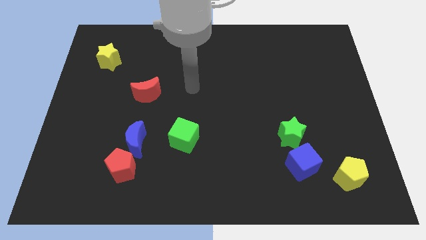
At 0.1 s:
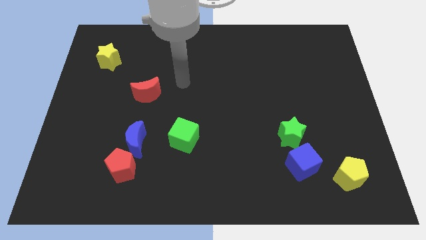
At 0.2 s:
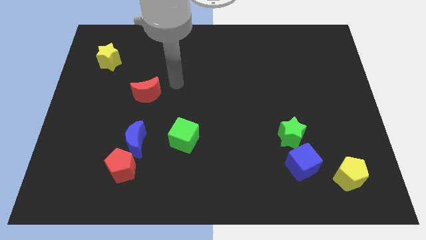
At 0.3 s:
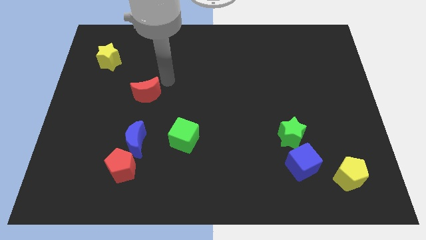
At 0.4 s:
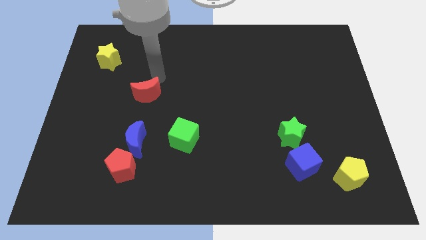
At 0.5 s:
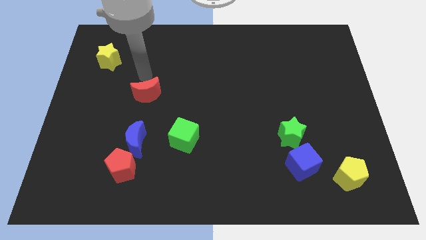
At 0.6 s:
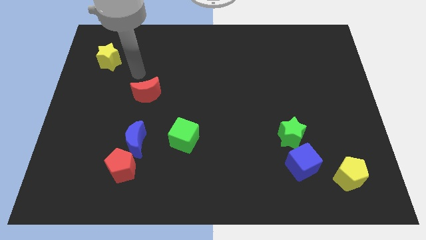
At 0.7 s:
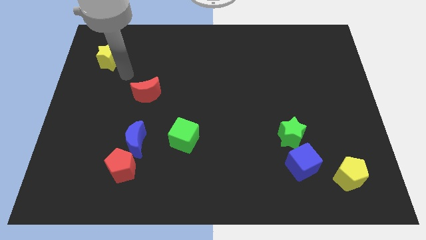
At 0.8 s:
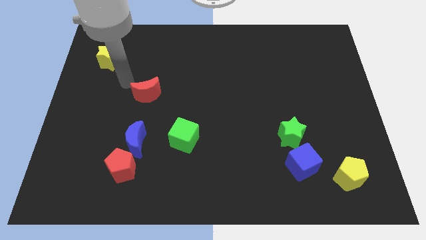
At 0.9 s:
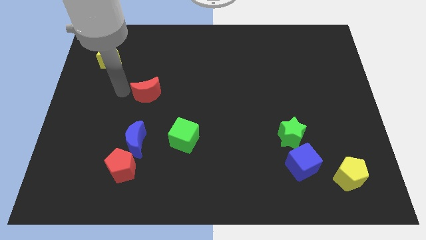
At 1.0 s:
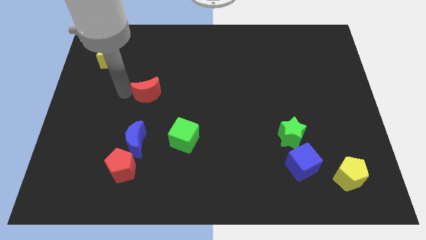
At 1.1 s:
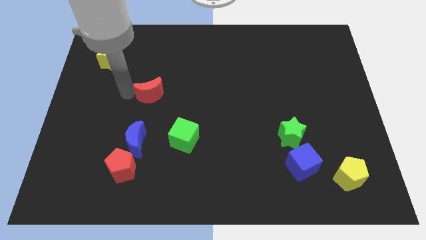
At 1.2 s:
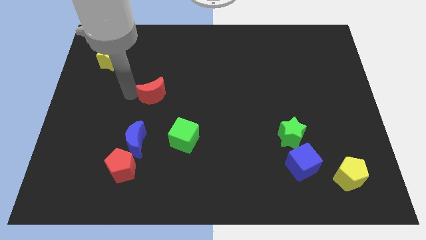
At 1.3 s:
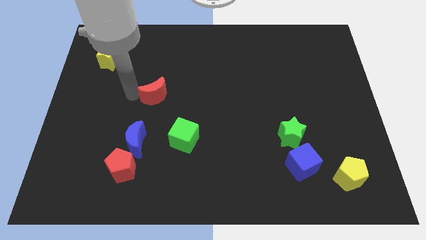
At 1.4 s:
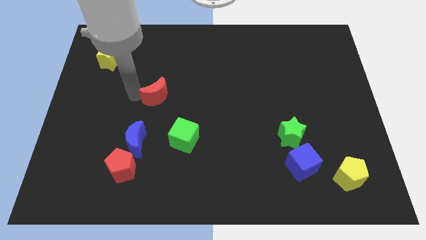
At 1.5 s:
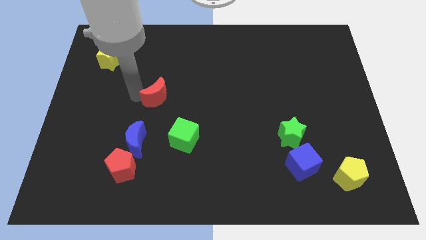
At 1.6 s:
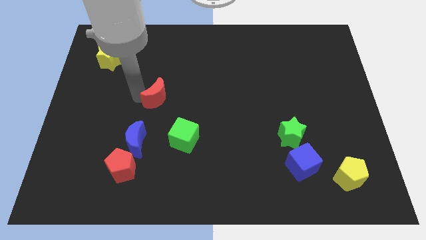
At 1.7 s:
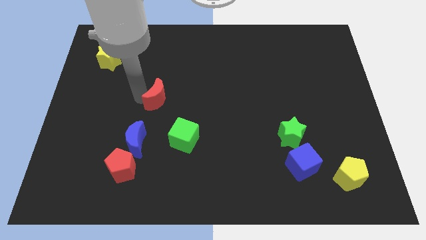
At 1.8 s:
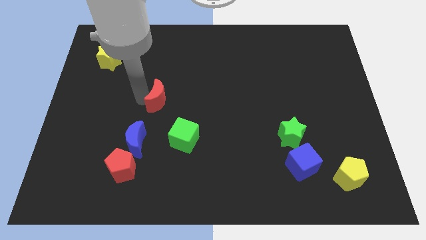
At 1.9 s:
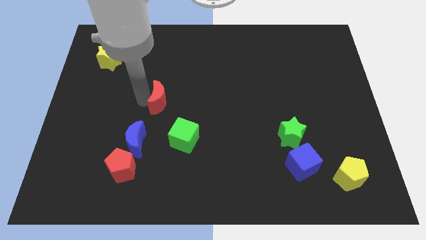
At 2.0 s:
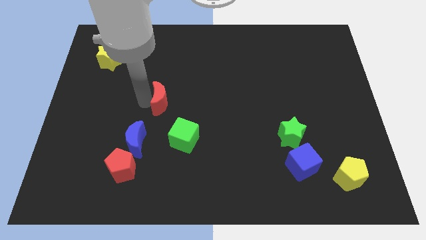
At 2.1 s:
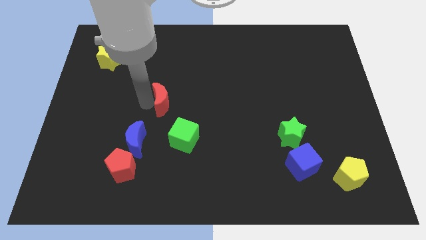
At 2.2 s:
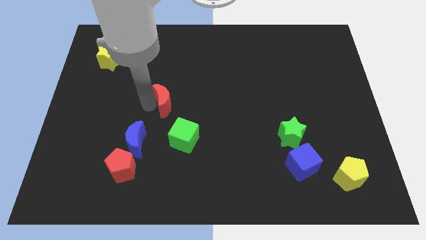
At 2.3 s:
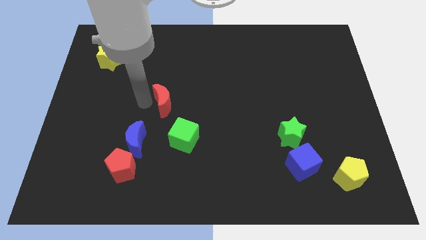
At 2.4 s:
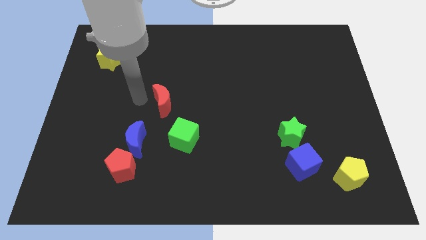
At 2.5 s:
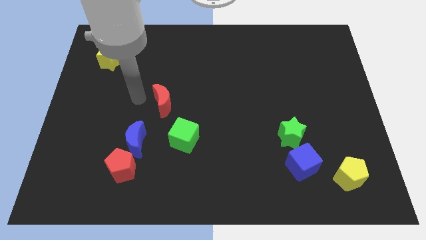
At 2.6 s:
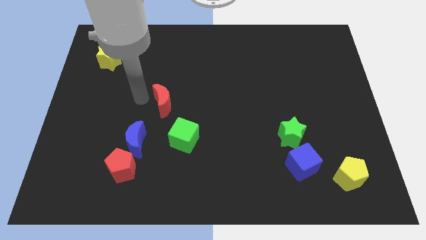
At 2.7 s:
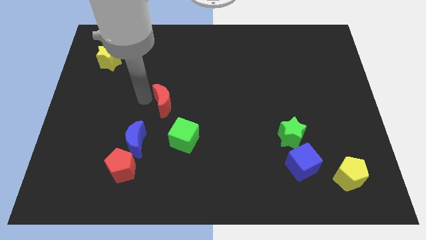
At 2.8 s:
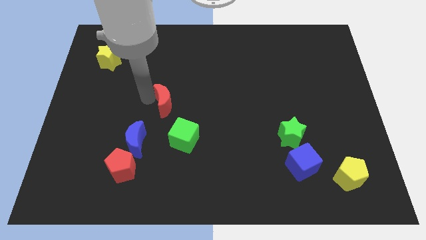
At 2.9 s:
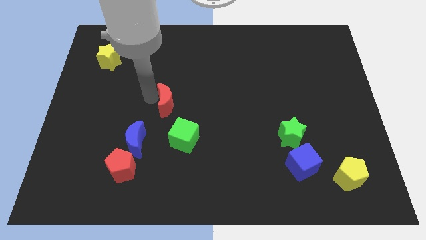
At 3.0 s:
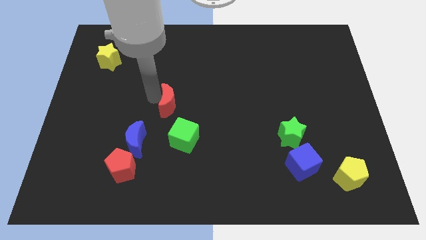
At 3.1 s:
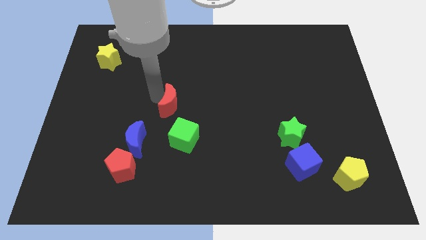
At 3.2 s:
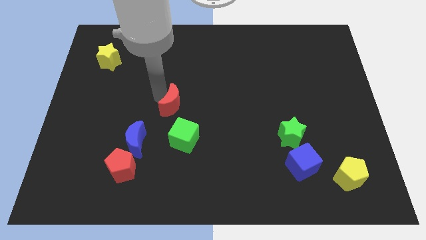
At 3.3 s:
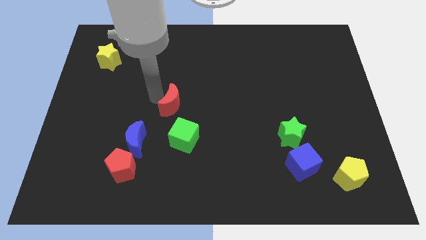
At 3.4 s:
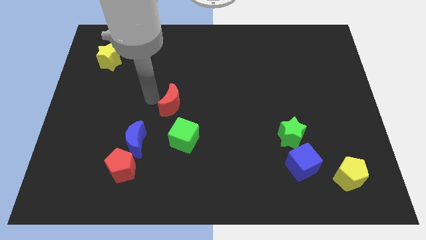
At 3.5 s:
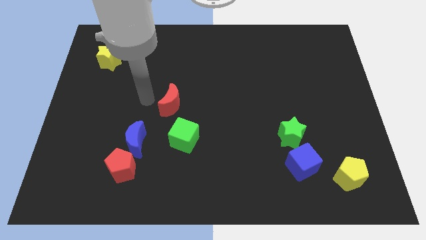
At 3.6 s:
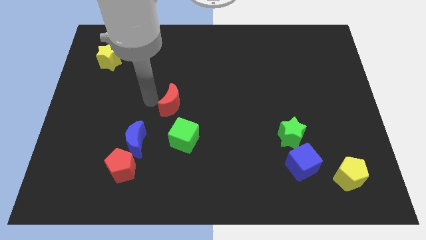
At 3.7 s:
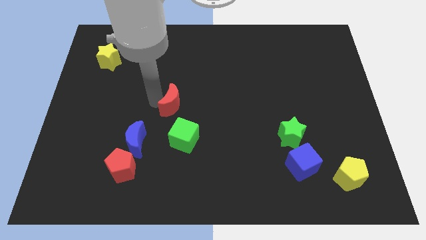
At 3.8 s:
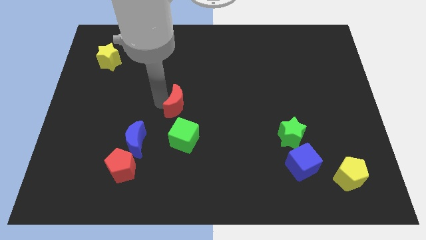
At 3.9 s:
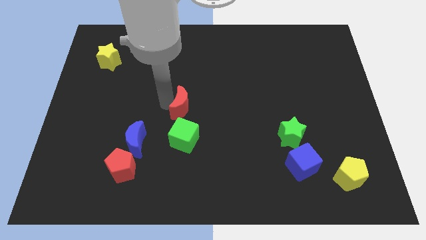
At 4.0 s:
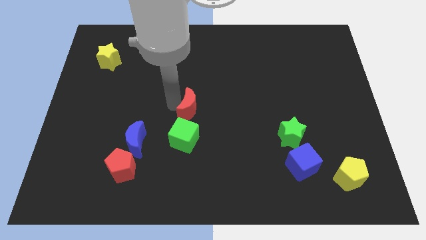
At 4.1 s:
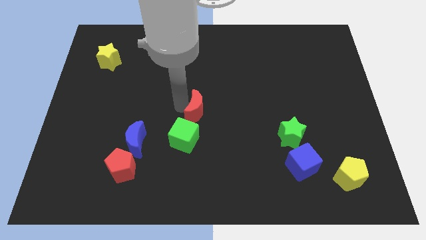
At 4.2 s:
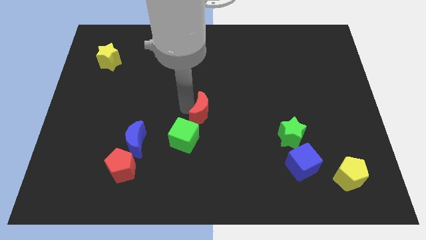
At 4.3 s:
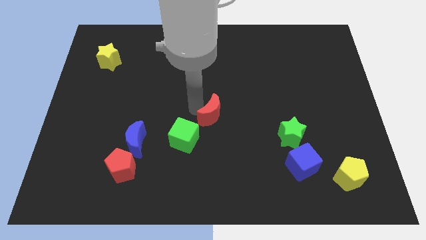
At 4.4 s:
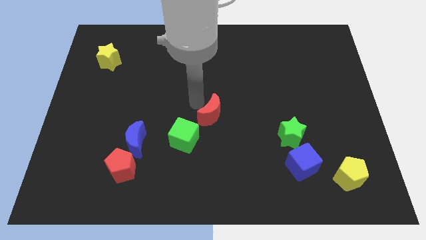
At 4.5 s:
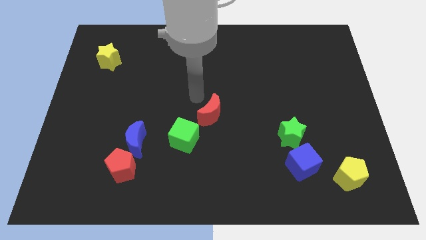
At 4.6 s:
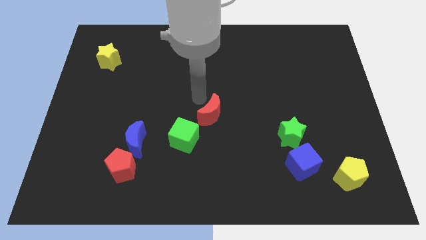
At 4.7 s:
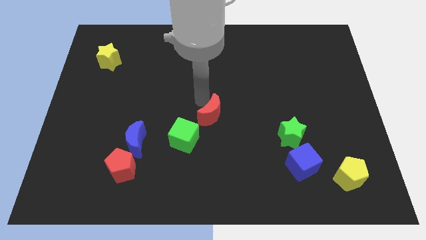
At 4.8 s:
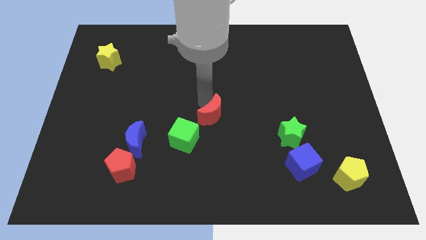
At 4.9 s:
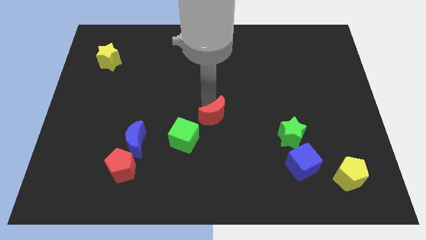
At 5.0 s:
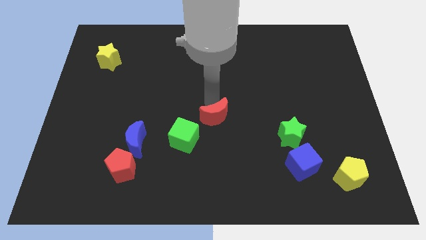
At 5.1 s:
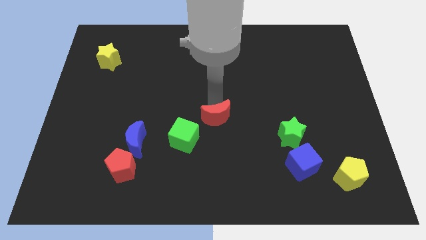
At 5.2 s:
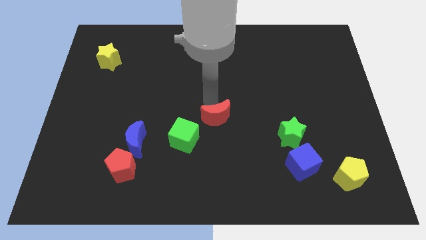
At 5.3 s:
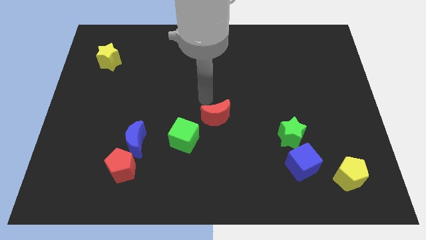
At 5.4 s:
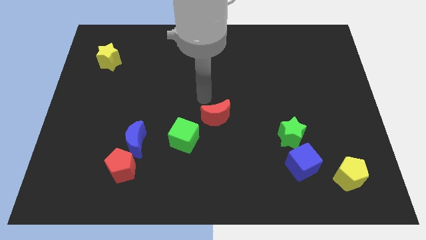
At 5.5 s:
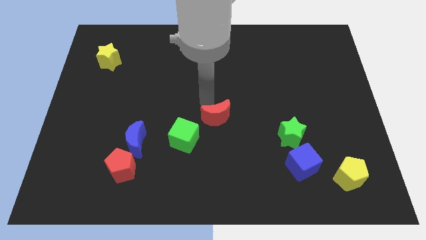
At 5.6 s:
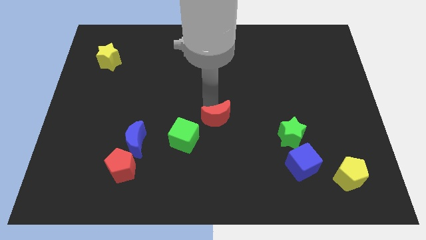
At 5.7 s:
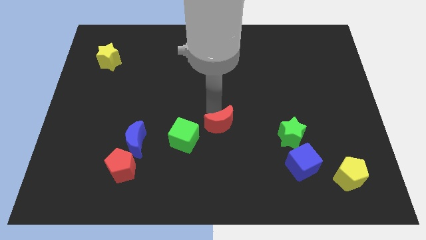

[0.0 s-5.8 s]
push the red moon to the right side of the green cube

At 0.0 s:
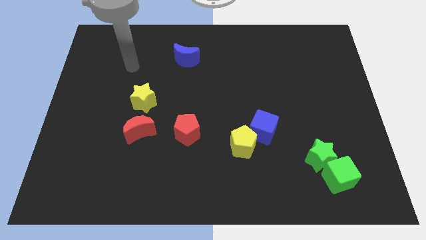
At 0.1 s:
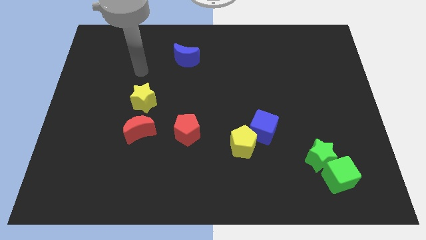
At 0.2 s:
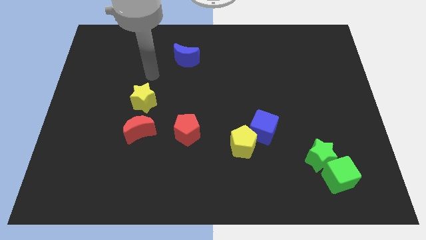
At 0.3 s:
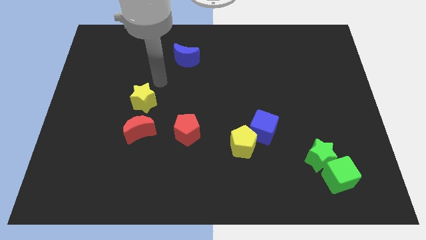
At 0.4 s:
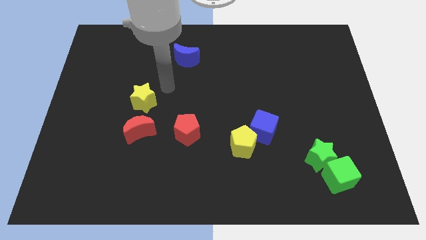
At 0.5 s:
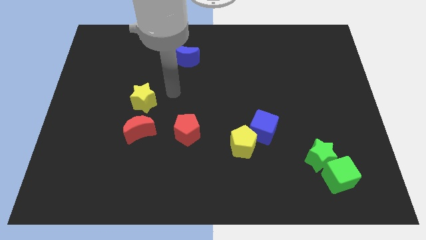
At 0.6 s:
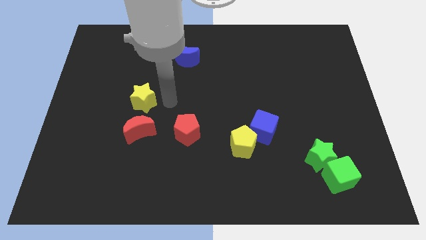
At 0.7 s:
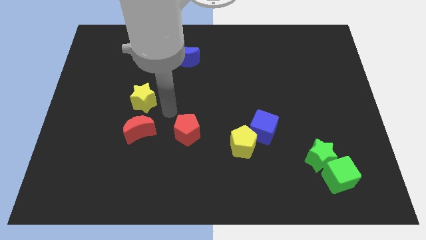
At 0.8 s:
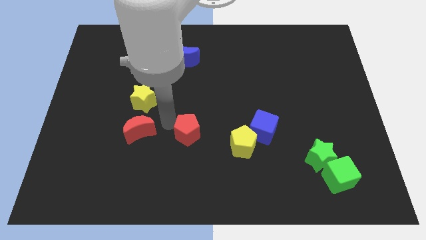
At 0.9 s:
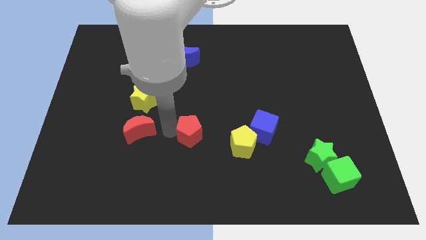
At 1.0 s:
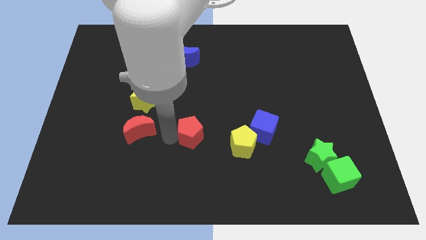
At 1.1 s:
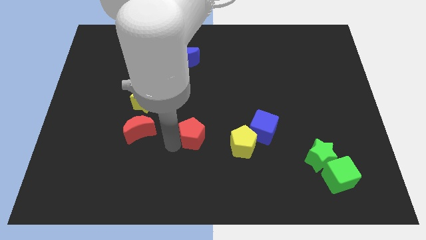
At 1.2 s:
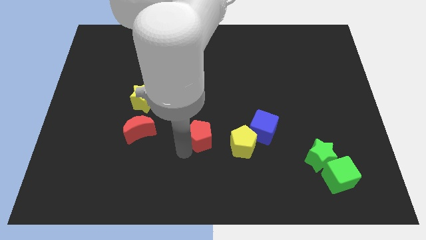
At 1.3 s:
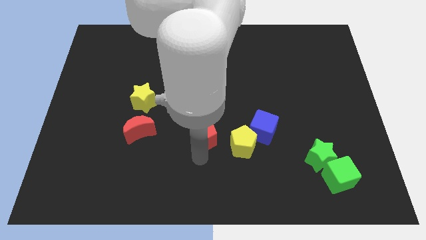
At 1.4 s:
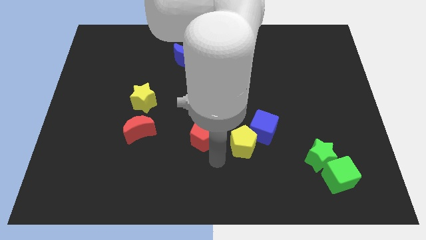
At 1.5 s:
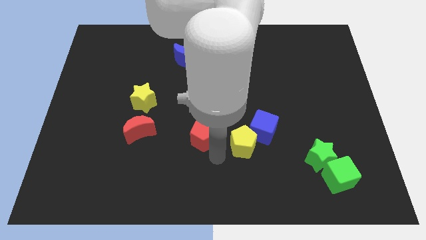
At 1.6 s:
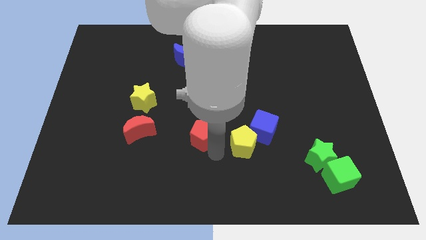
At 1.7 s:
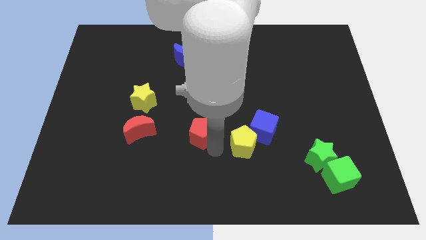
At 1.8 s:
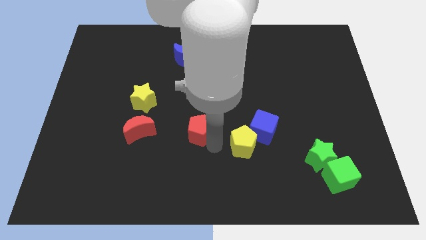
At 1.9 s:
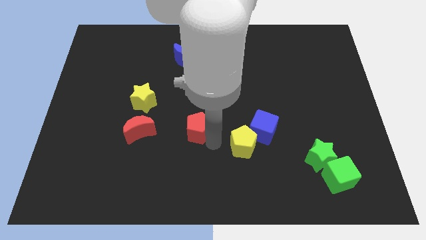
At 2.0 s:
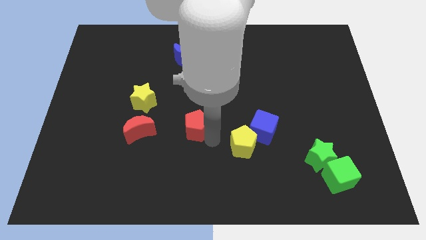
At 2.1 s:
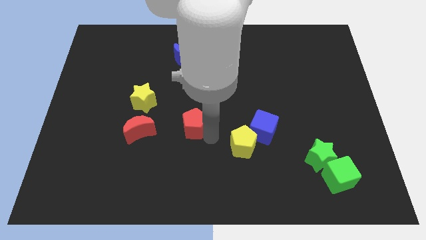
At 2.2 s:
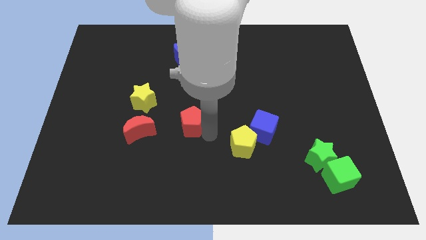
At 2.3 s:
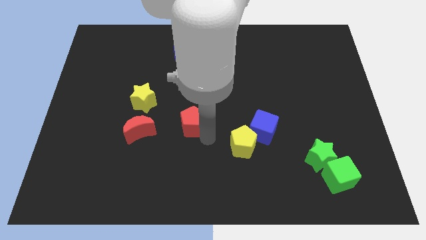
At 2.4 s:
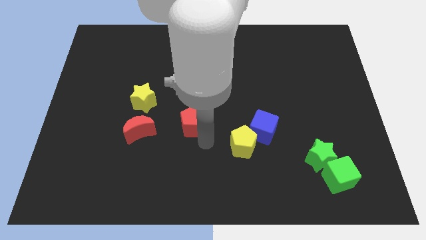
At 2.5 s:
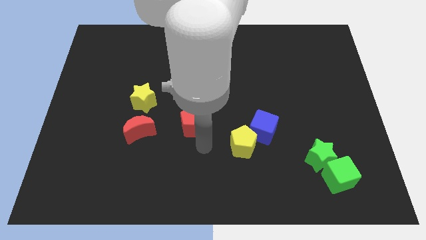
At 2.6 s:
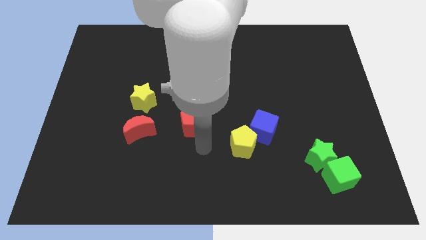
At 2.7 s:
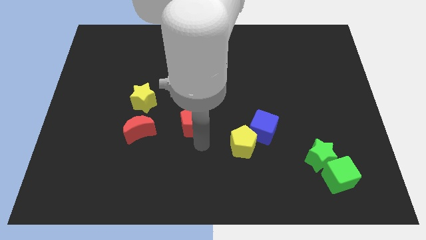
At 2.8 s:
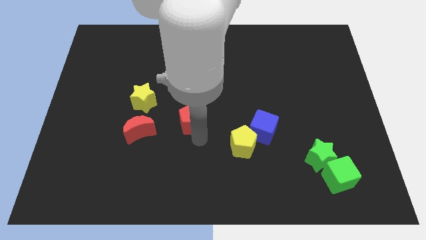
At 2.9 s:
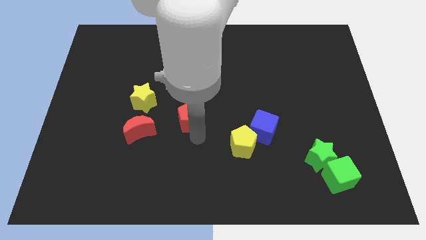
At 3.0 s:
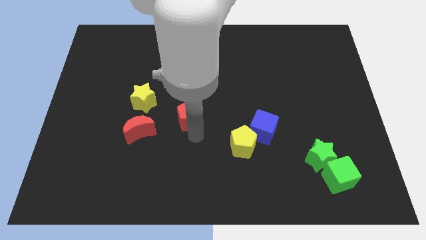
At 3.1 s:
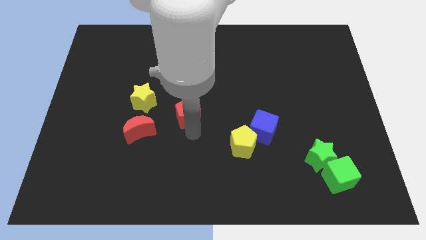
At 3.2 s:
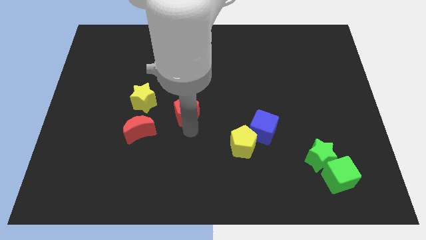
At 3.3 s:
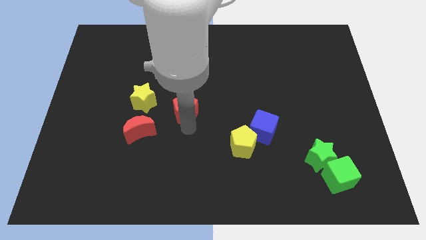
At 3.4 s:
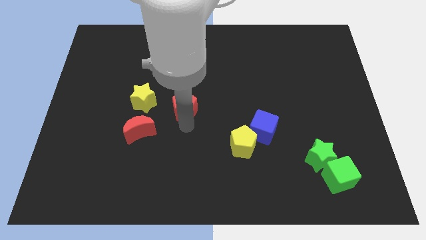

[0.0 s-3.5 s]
slide the red pentagon to the bottom side of the blue moon
